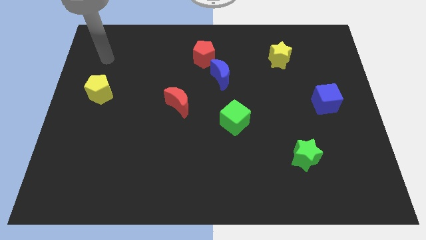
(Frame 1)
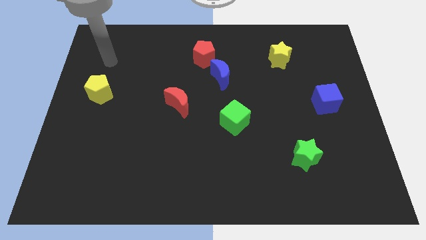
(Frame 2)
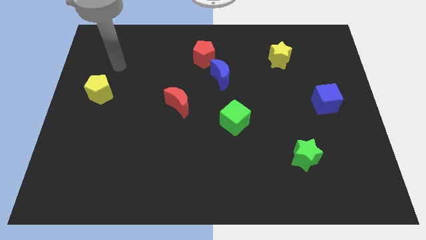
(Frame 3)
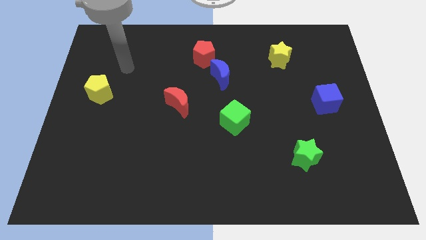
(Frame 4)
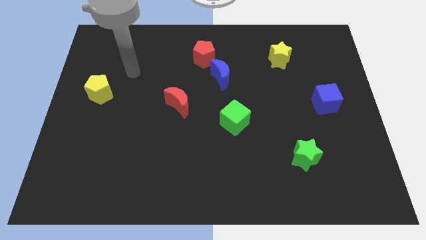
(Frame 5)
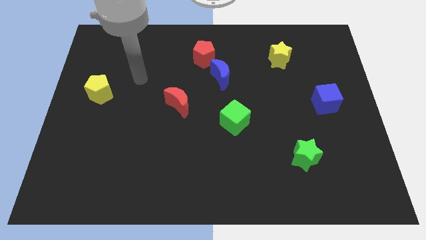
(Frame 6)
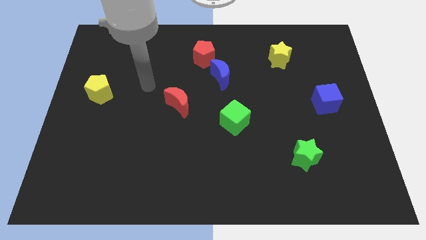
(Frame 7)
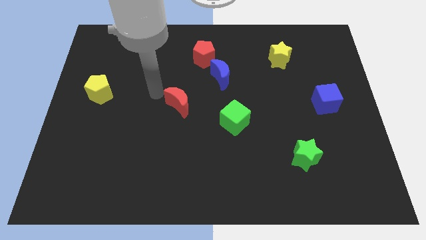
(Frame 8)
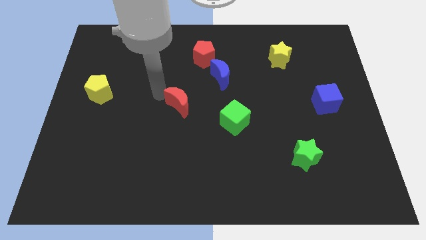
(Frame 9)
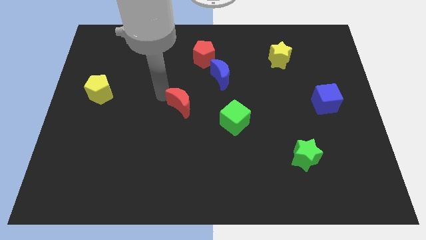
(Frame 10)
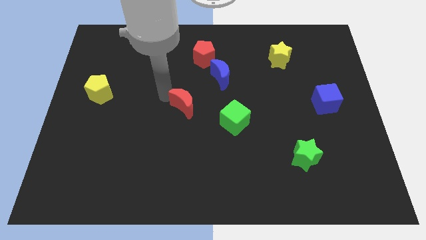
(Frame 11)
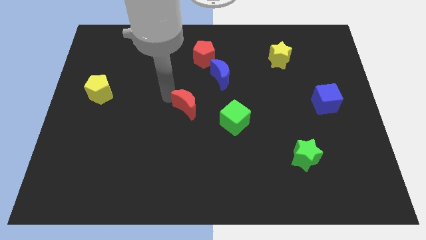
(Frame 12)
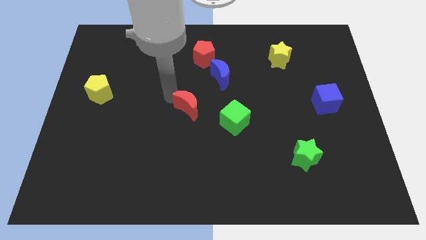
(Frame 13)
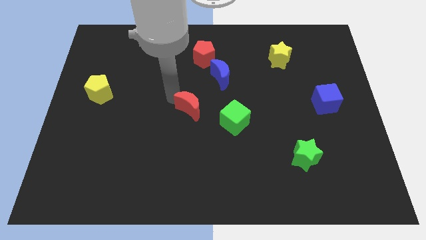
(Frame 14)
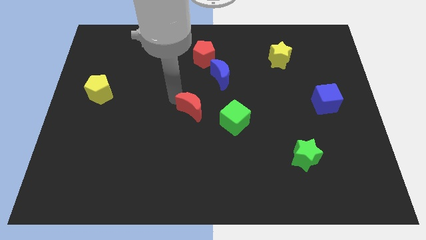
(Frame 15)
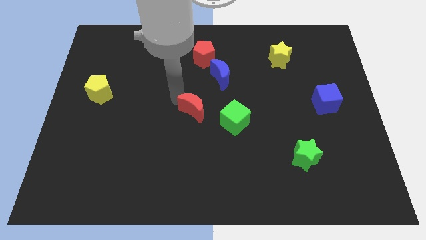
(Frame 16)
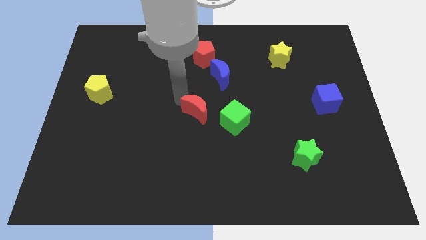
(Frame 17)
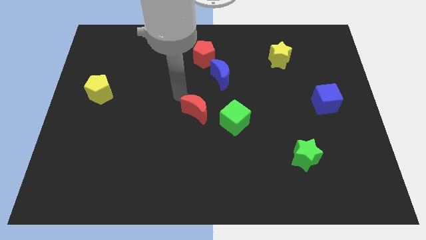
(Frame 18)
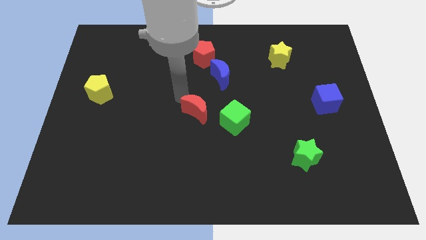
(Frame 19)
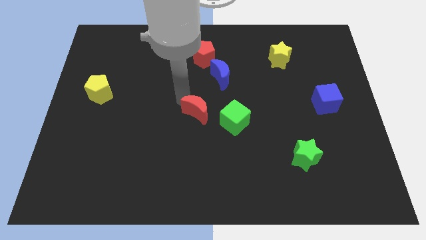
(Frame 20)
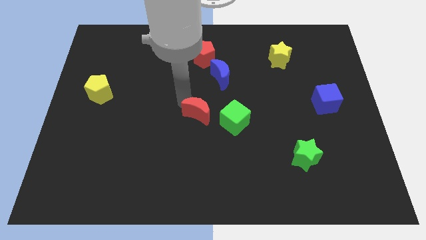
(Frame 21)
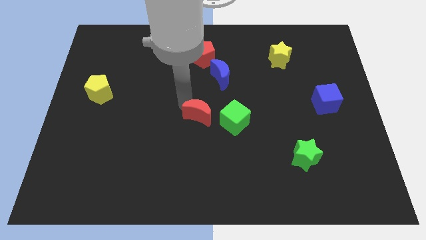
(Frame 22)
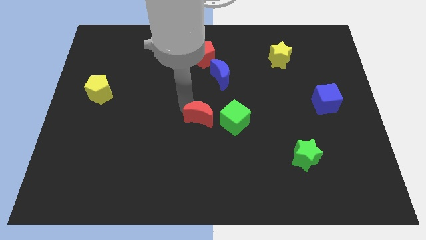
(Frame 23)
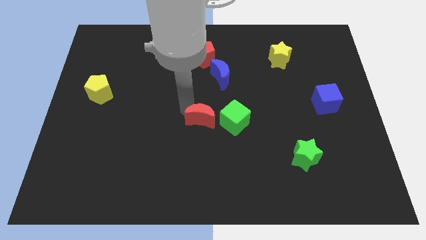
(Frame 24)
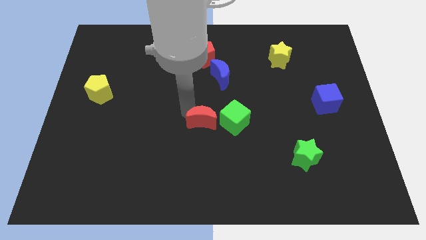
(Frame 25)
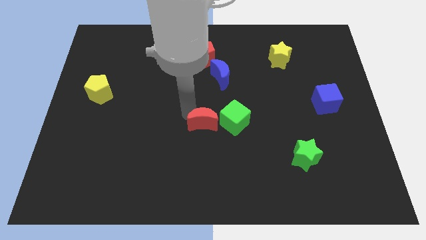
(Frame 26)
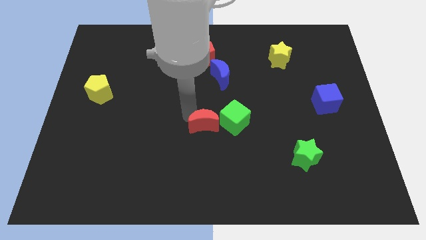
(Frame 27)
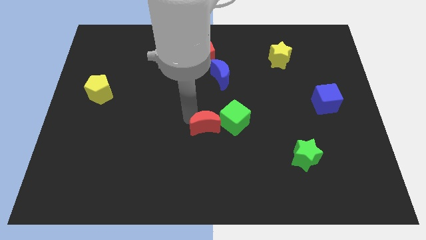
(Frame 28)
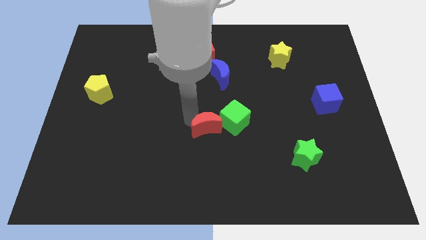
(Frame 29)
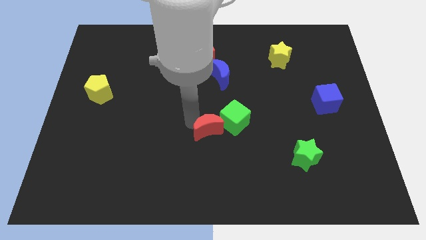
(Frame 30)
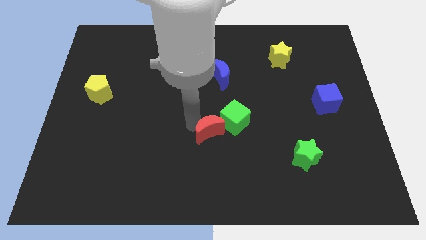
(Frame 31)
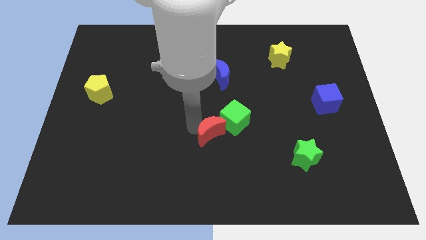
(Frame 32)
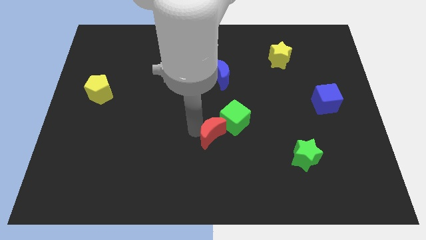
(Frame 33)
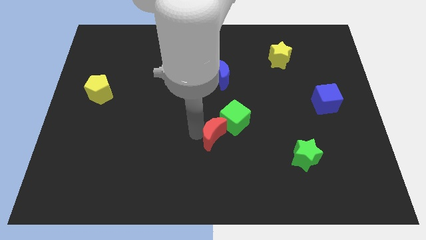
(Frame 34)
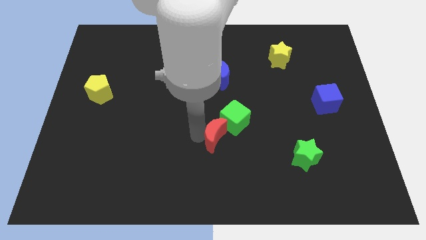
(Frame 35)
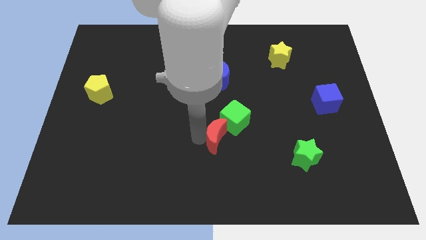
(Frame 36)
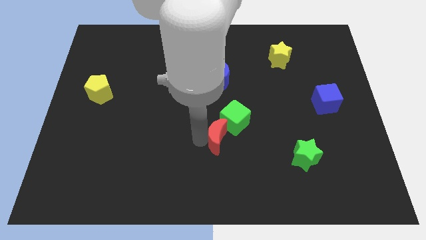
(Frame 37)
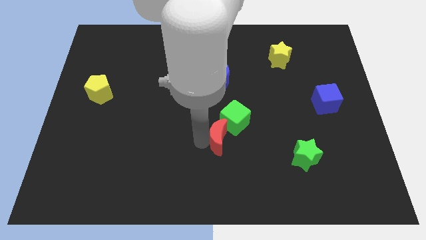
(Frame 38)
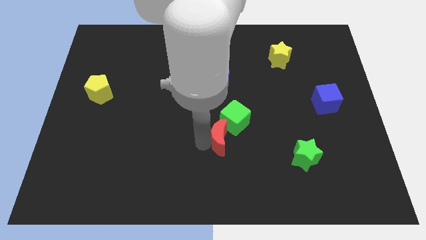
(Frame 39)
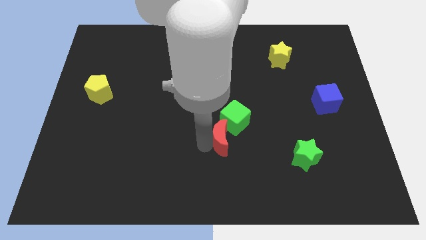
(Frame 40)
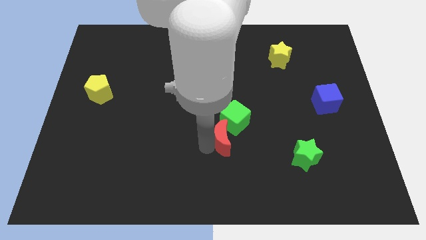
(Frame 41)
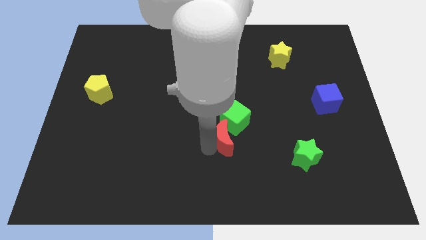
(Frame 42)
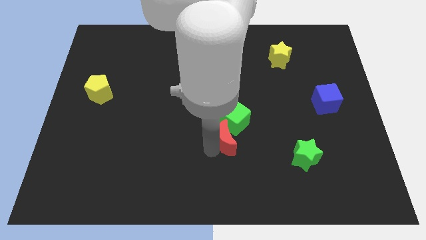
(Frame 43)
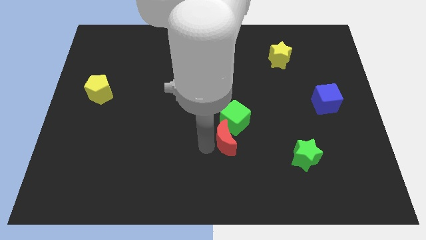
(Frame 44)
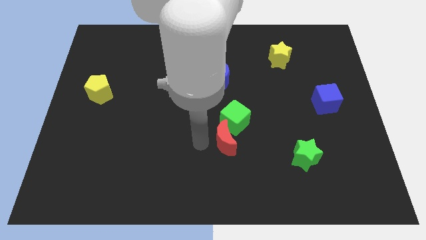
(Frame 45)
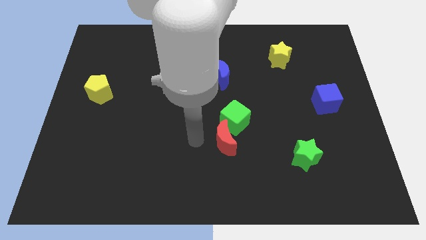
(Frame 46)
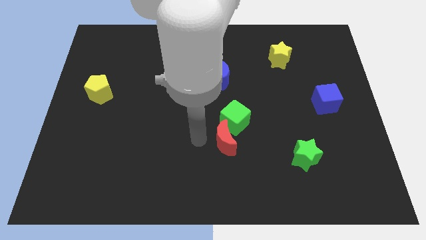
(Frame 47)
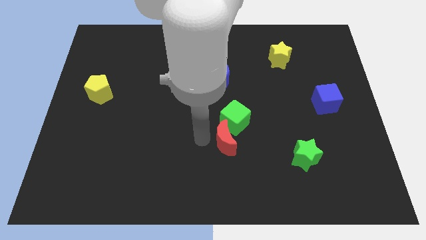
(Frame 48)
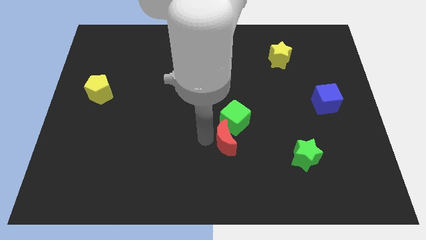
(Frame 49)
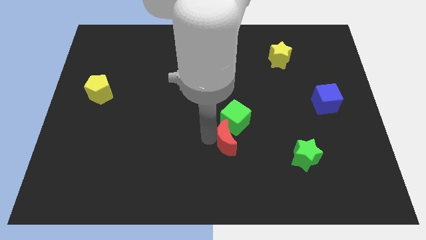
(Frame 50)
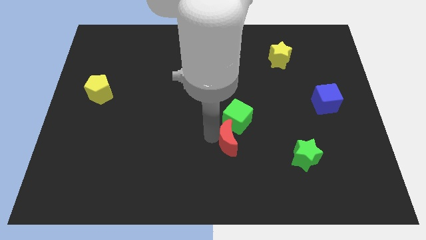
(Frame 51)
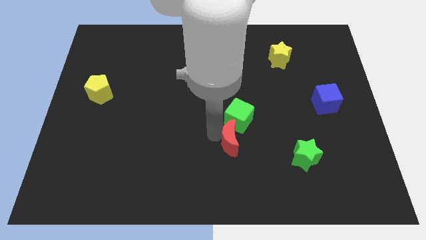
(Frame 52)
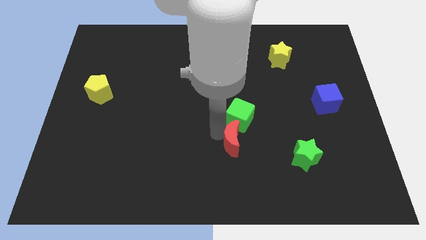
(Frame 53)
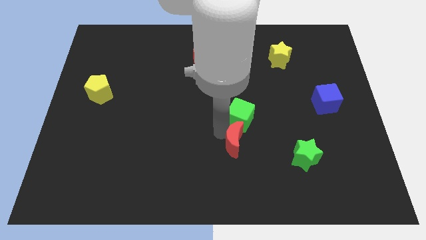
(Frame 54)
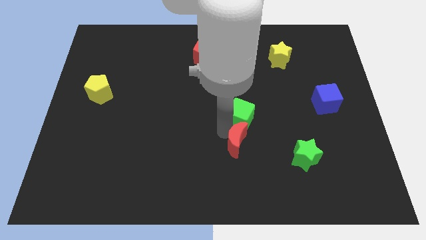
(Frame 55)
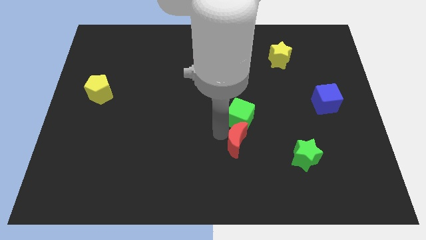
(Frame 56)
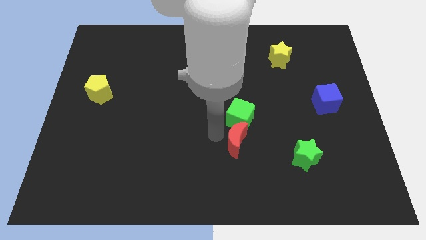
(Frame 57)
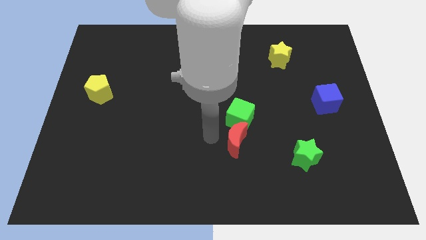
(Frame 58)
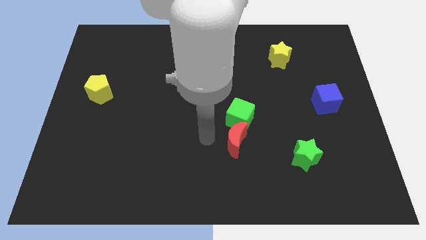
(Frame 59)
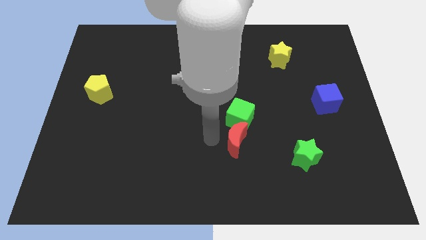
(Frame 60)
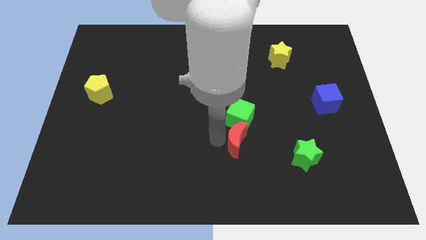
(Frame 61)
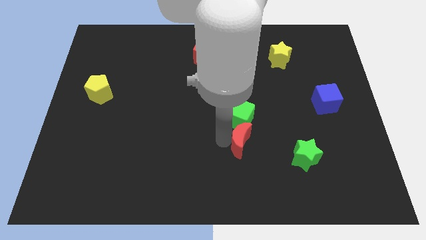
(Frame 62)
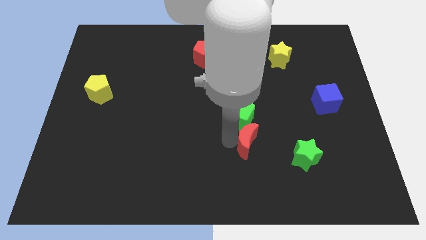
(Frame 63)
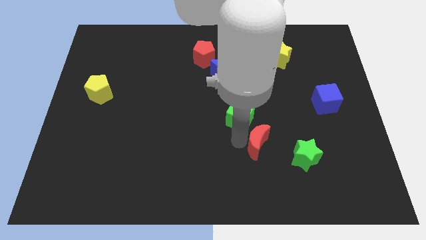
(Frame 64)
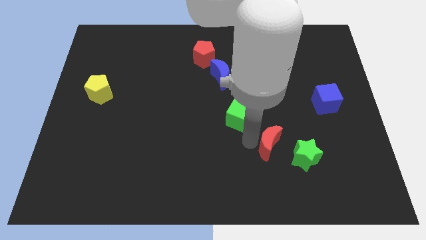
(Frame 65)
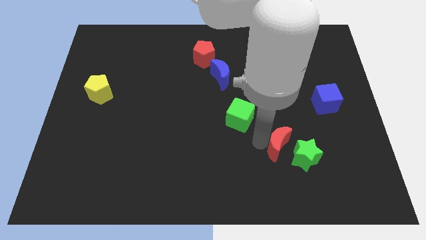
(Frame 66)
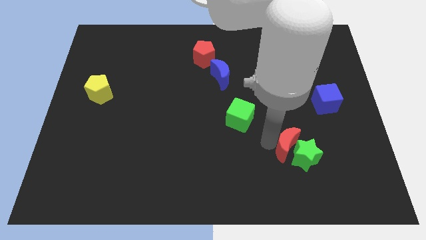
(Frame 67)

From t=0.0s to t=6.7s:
move the red moon next to the green star
